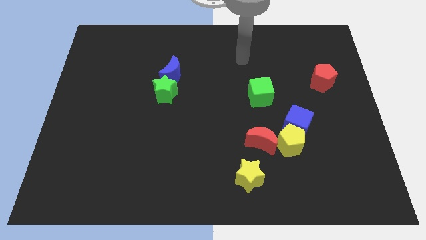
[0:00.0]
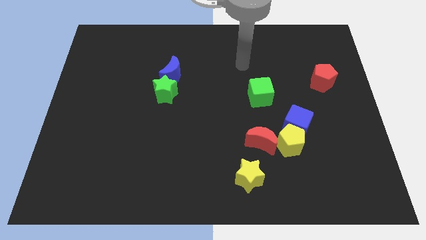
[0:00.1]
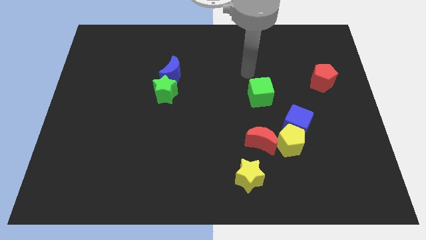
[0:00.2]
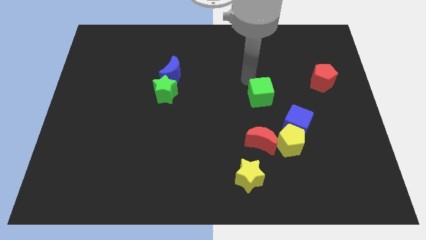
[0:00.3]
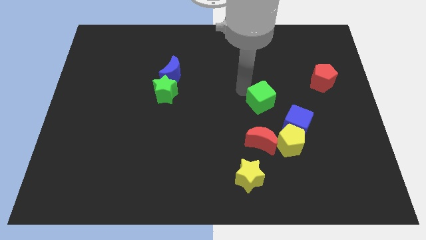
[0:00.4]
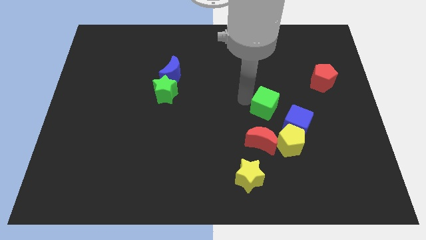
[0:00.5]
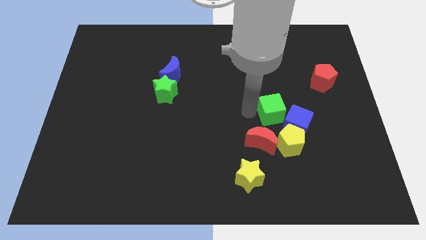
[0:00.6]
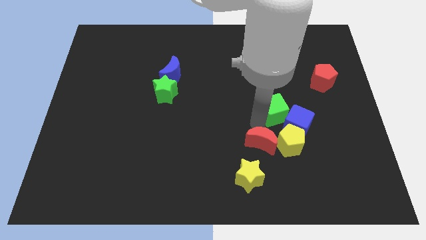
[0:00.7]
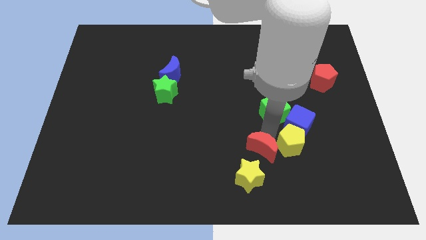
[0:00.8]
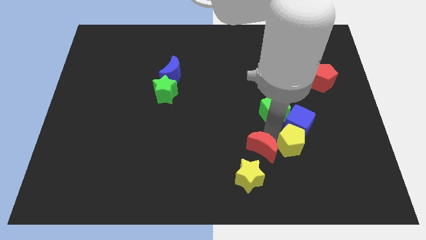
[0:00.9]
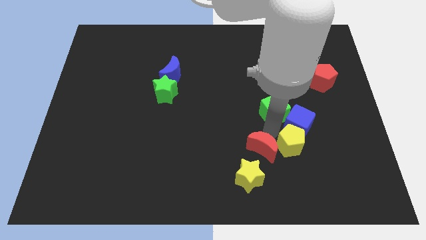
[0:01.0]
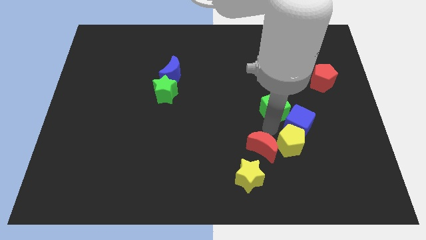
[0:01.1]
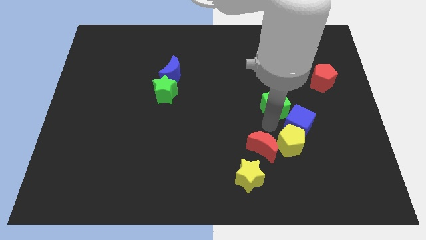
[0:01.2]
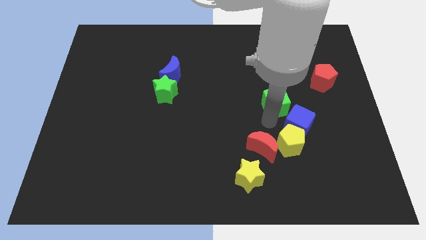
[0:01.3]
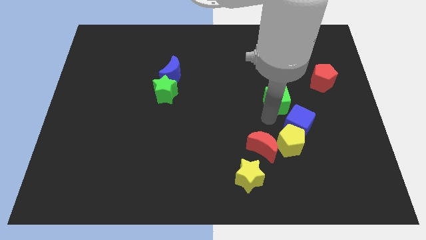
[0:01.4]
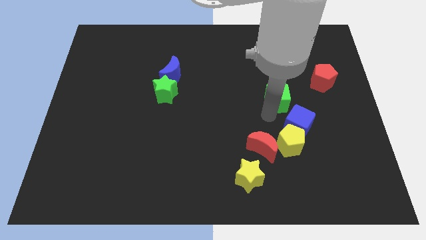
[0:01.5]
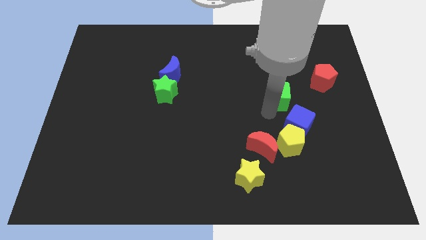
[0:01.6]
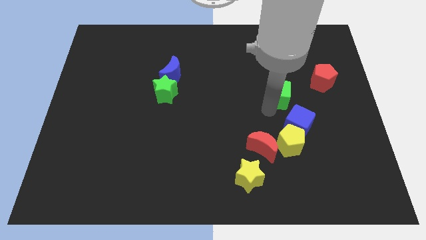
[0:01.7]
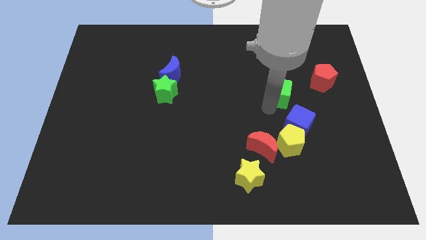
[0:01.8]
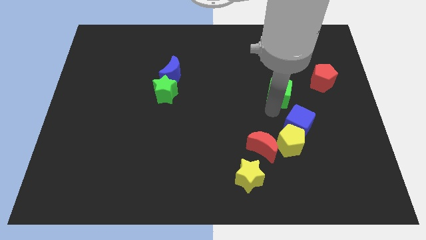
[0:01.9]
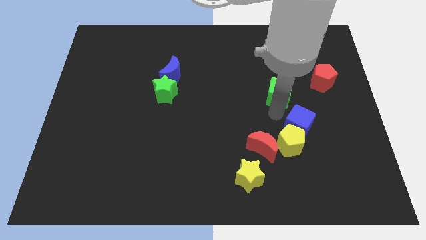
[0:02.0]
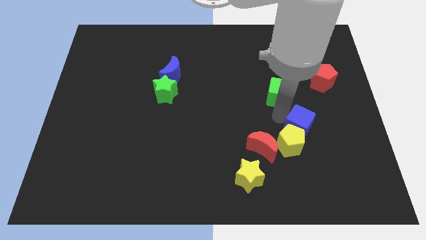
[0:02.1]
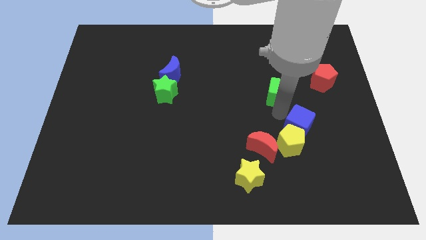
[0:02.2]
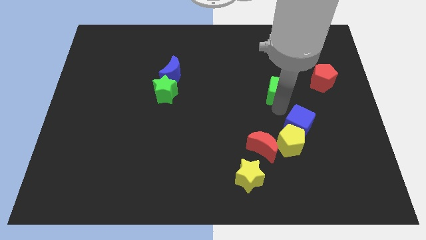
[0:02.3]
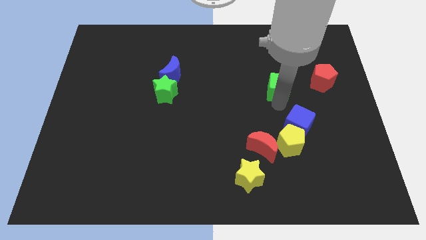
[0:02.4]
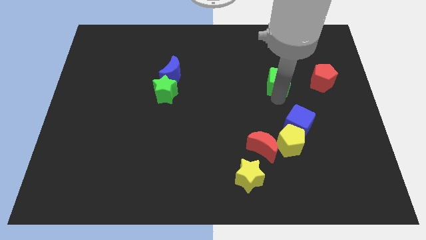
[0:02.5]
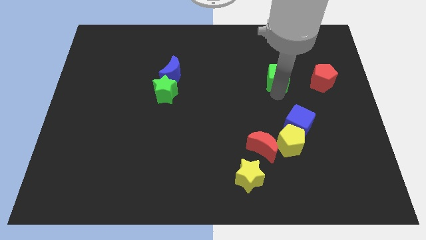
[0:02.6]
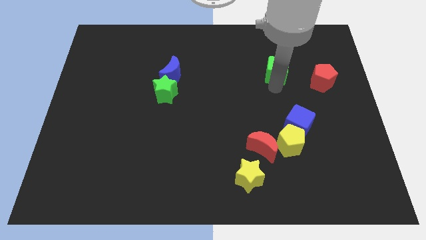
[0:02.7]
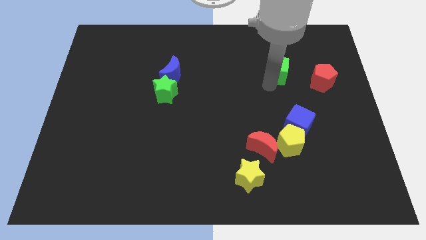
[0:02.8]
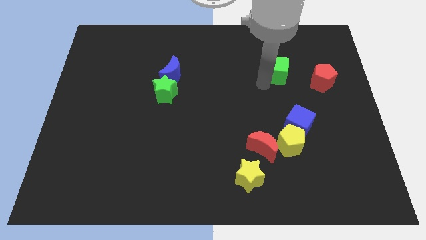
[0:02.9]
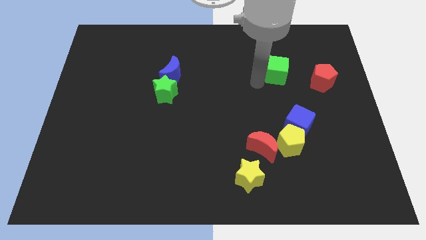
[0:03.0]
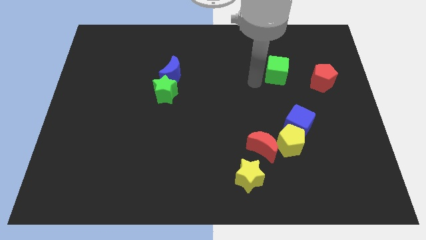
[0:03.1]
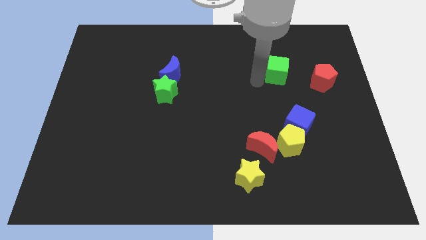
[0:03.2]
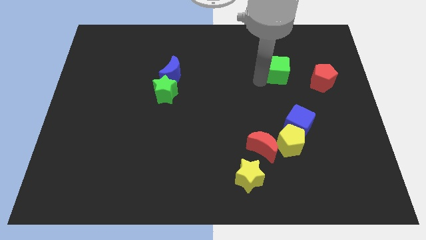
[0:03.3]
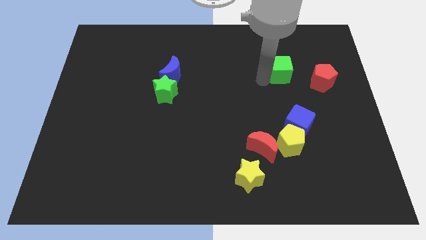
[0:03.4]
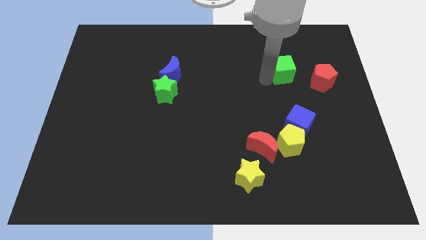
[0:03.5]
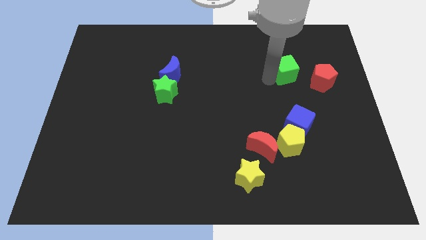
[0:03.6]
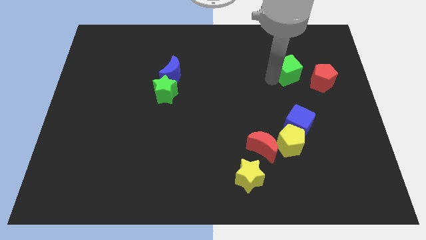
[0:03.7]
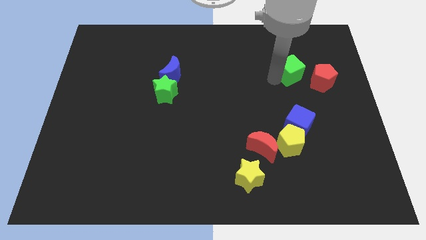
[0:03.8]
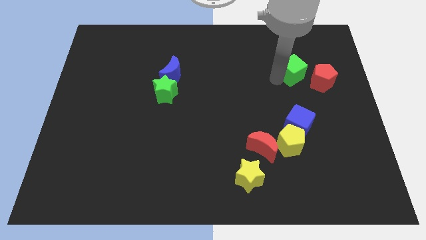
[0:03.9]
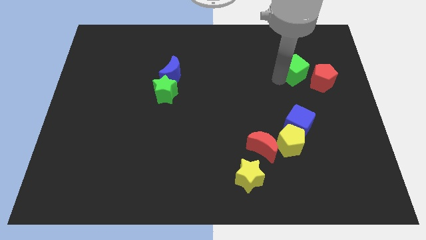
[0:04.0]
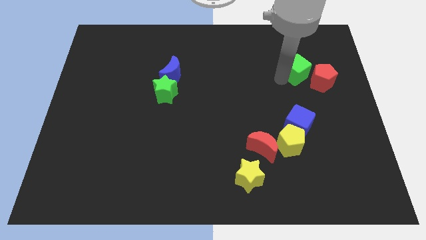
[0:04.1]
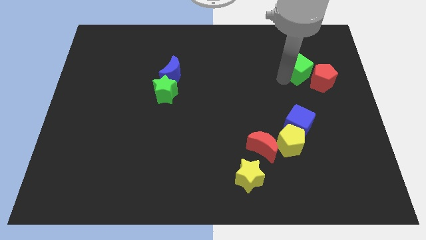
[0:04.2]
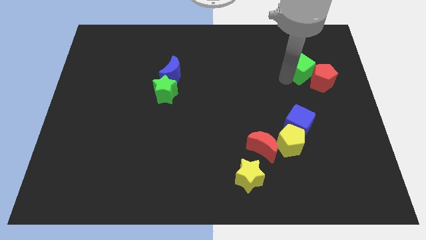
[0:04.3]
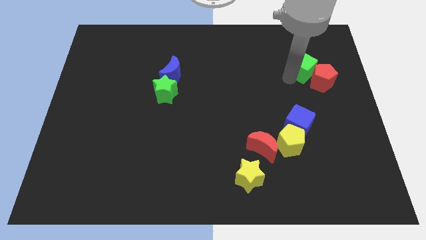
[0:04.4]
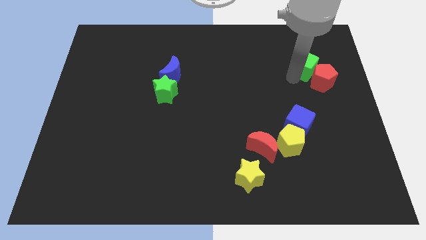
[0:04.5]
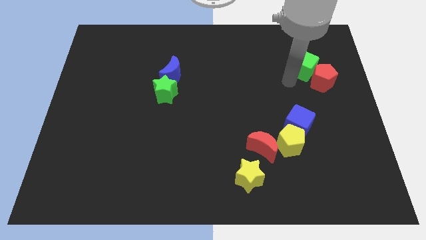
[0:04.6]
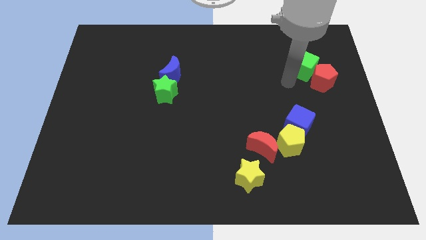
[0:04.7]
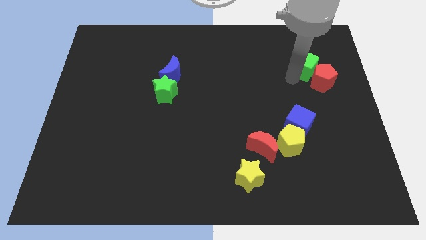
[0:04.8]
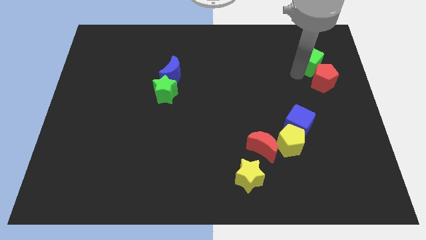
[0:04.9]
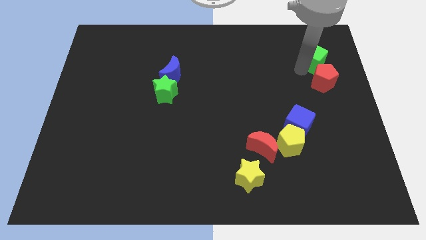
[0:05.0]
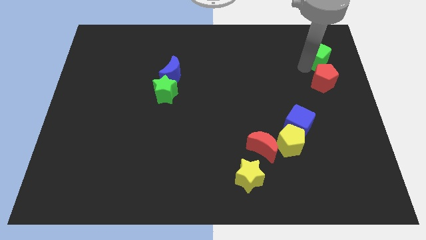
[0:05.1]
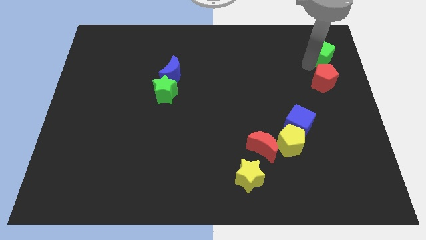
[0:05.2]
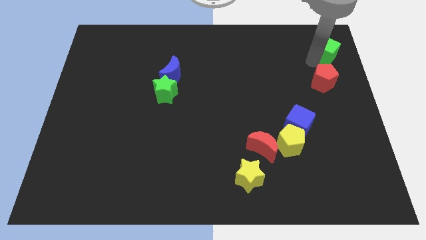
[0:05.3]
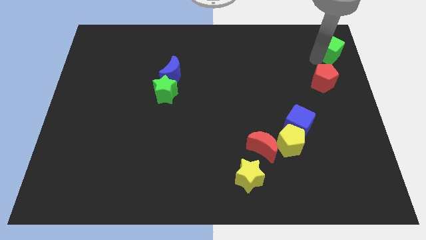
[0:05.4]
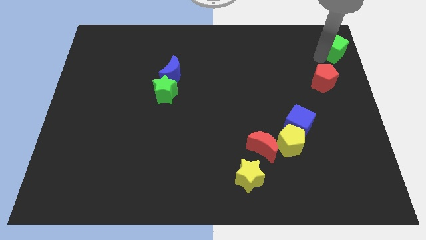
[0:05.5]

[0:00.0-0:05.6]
slide the green cube to the top right
